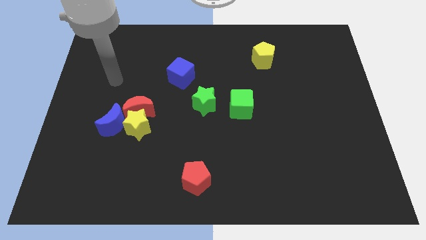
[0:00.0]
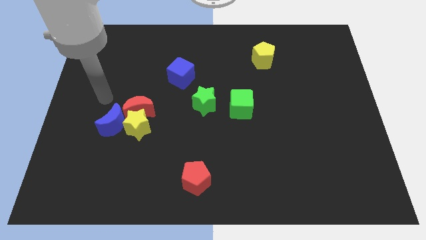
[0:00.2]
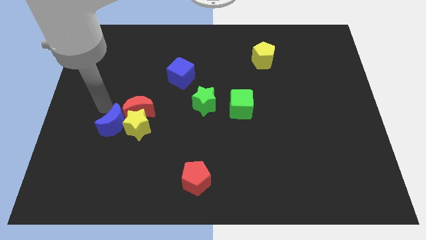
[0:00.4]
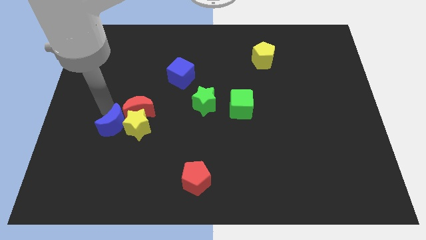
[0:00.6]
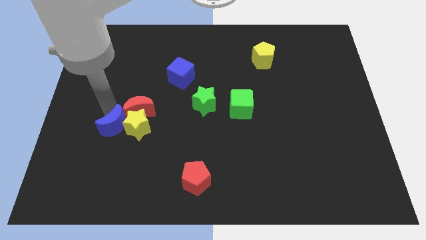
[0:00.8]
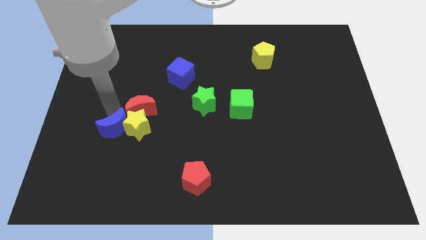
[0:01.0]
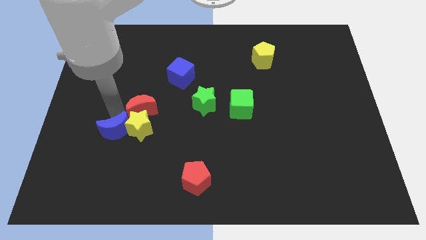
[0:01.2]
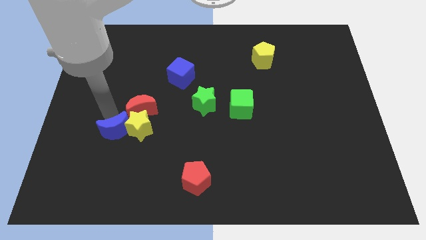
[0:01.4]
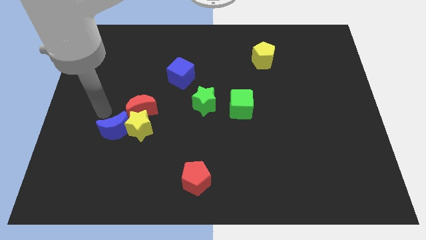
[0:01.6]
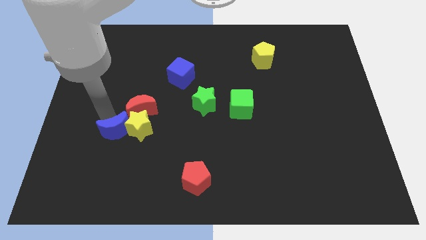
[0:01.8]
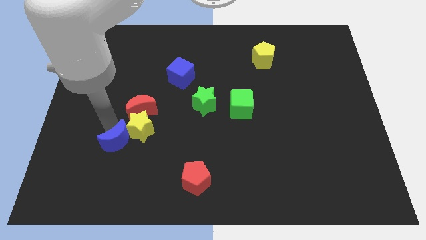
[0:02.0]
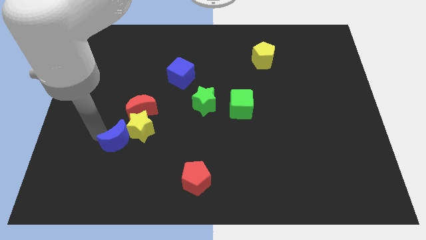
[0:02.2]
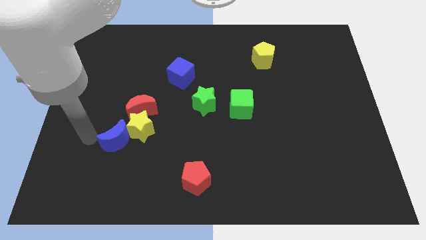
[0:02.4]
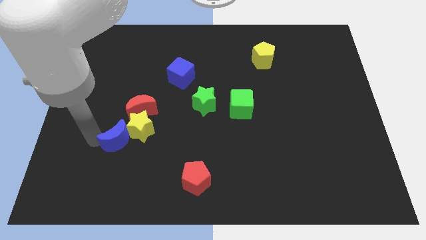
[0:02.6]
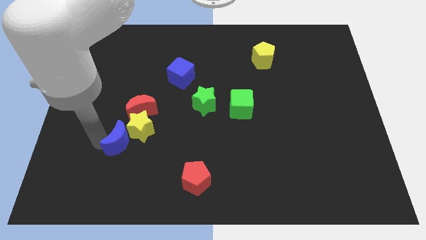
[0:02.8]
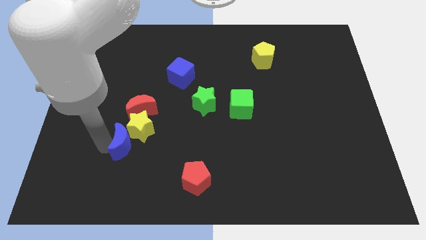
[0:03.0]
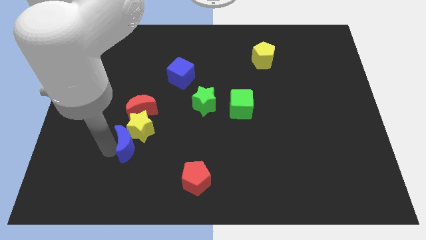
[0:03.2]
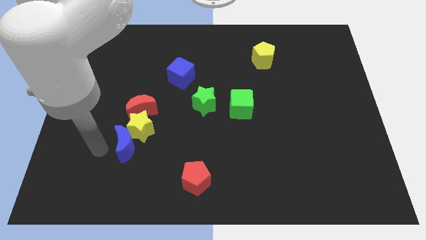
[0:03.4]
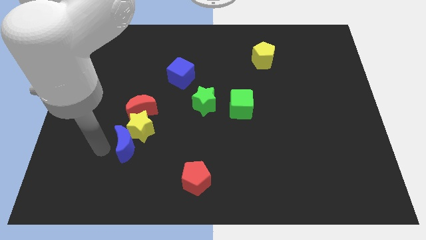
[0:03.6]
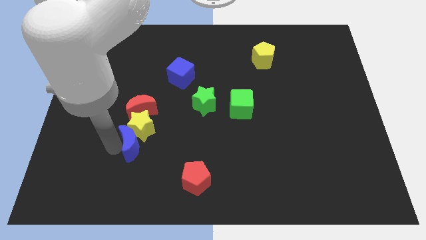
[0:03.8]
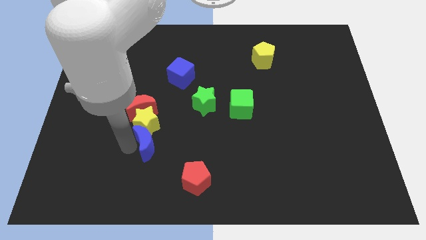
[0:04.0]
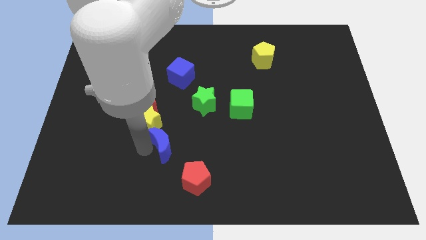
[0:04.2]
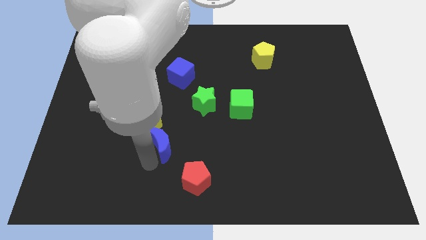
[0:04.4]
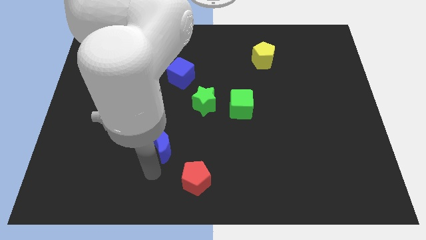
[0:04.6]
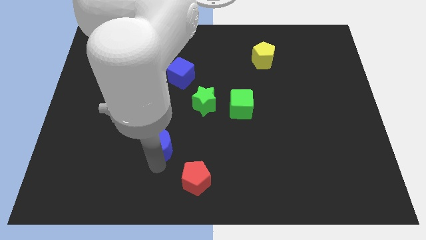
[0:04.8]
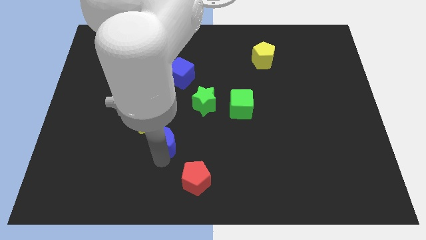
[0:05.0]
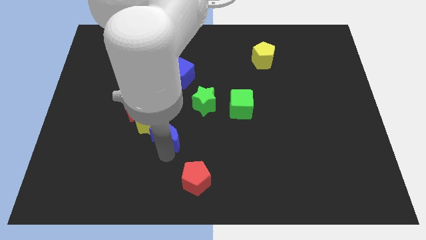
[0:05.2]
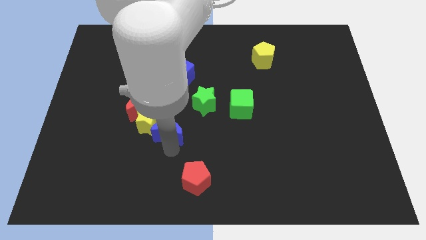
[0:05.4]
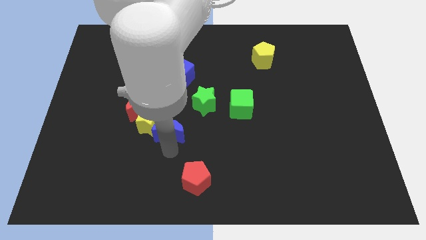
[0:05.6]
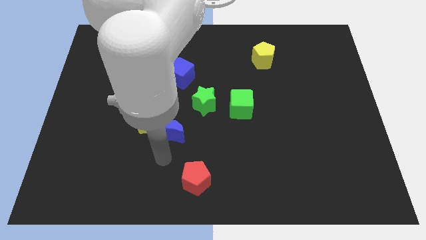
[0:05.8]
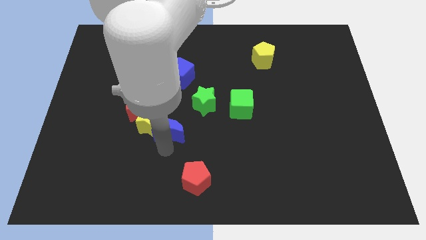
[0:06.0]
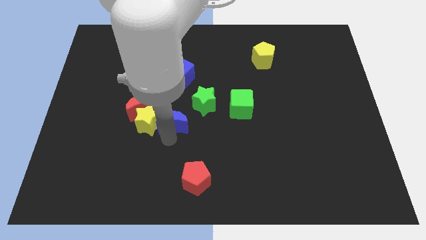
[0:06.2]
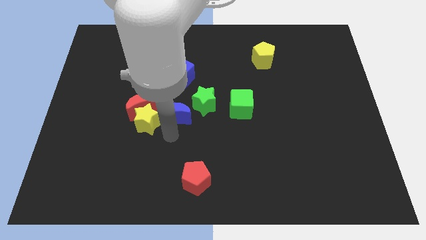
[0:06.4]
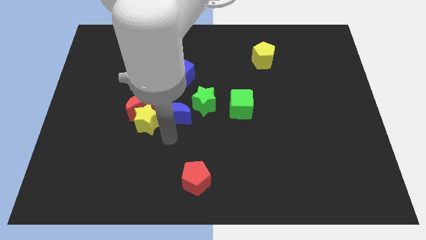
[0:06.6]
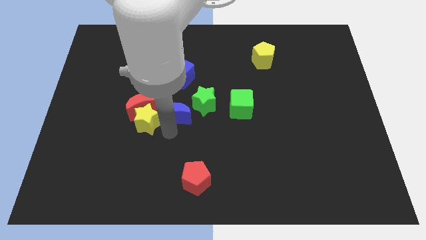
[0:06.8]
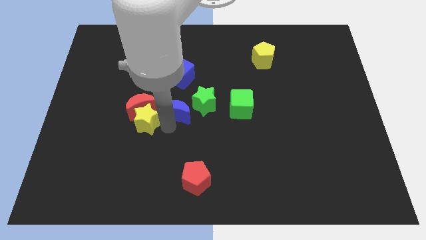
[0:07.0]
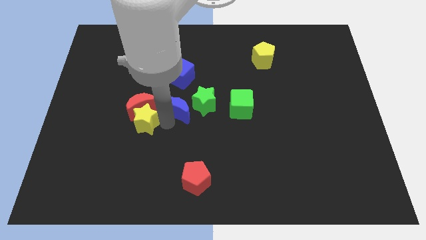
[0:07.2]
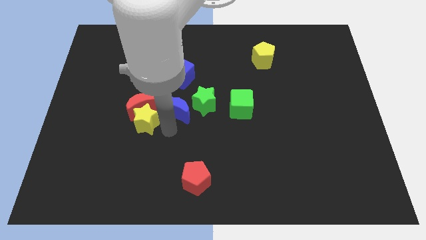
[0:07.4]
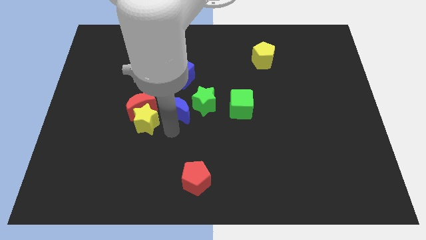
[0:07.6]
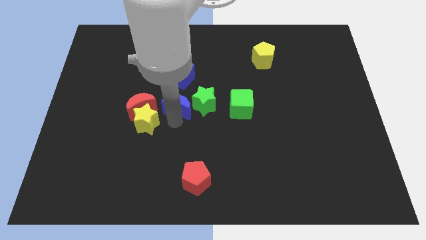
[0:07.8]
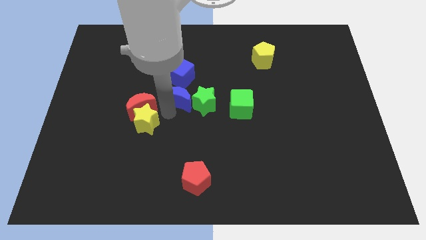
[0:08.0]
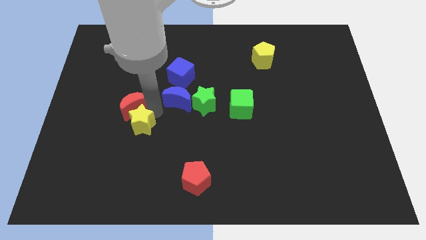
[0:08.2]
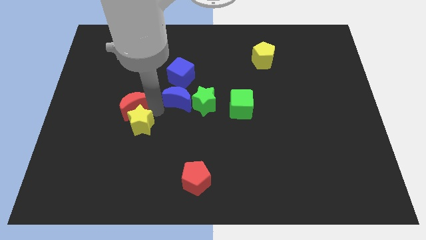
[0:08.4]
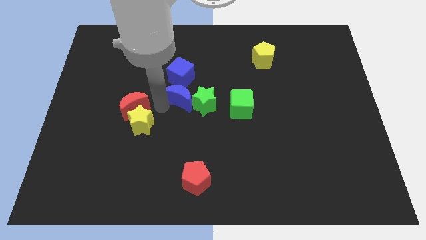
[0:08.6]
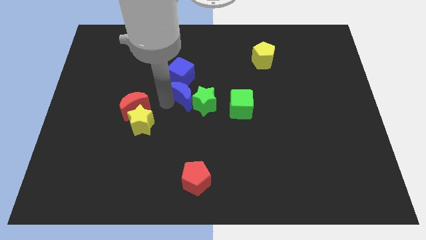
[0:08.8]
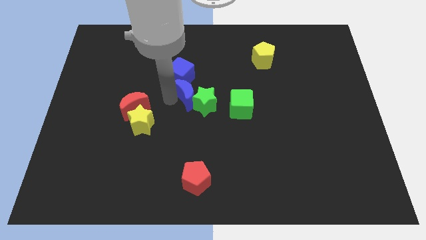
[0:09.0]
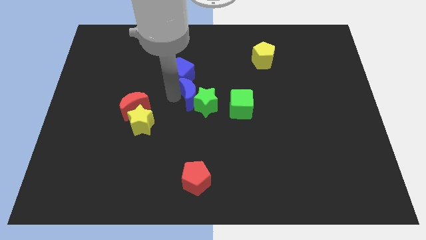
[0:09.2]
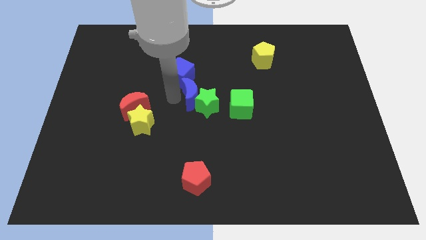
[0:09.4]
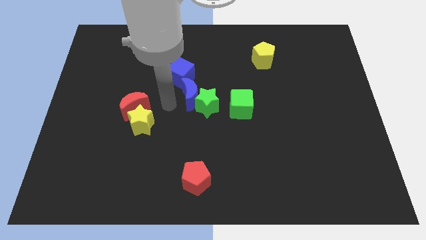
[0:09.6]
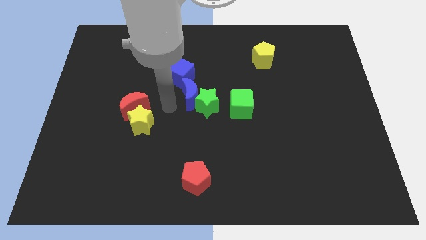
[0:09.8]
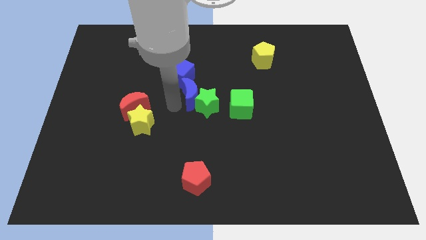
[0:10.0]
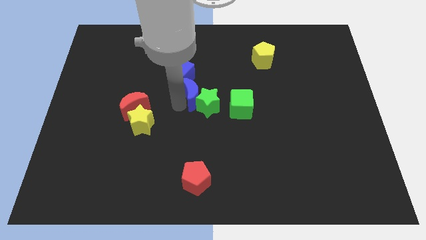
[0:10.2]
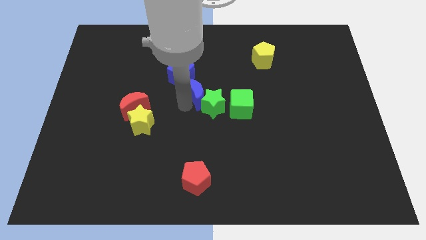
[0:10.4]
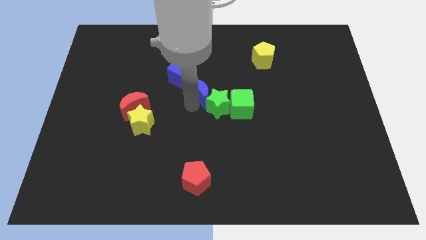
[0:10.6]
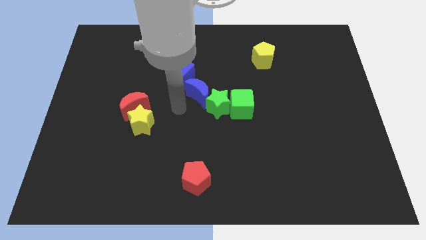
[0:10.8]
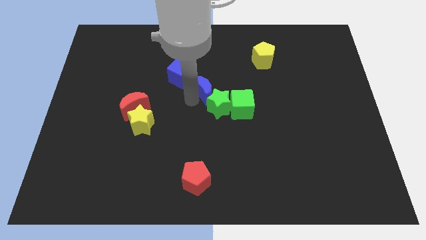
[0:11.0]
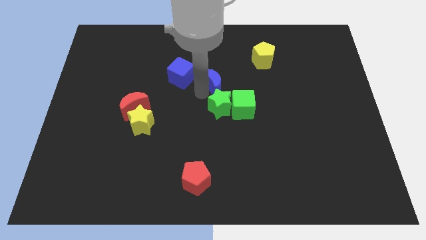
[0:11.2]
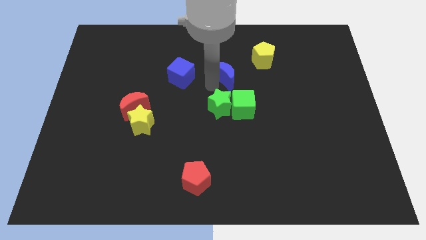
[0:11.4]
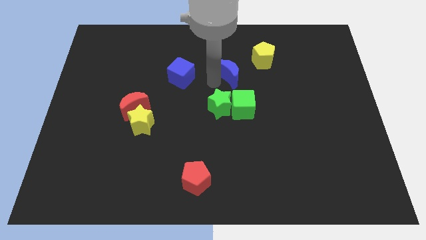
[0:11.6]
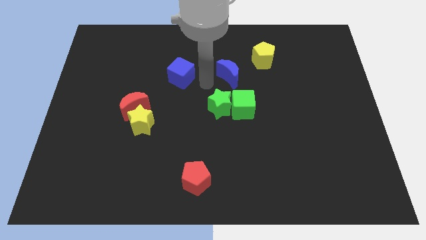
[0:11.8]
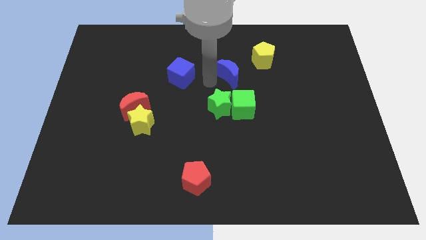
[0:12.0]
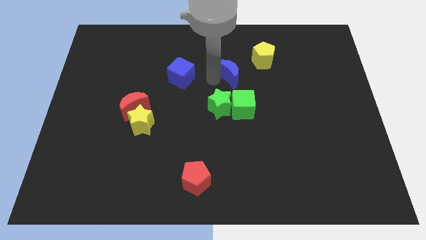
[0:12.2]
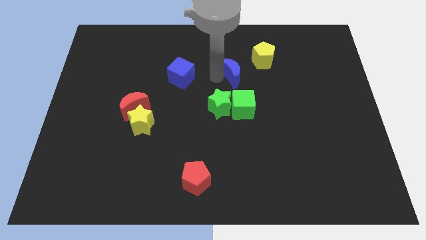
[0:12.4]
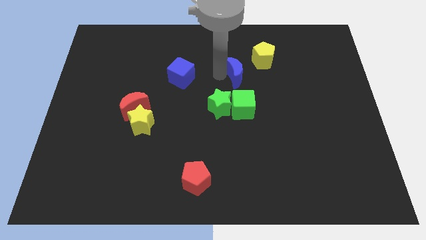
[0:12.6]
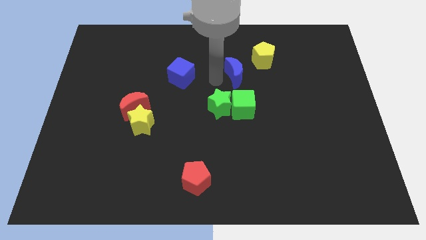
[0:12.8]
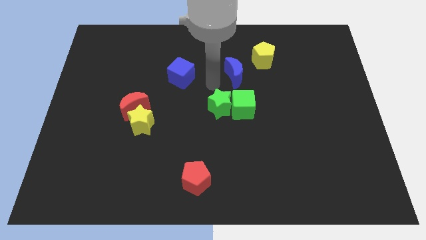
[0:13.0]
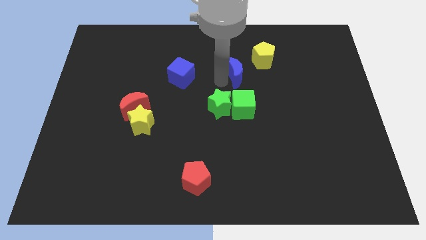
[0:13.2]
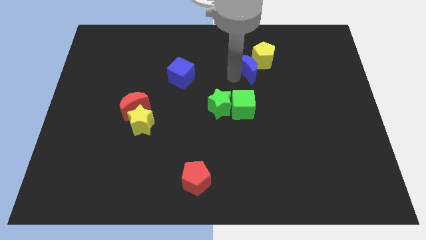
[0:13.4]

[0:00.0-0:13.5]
slide the blue moon towards the yellow pentagon

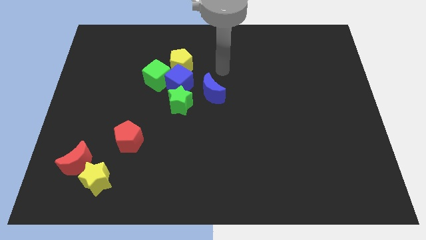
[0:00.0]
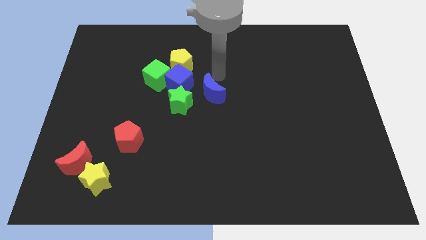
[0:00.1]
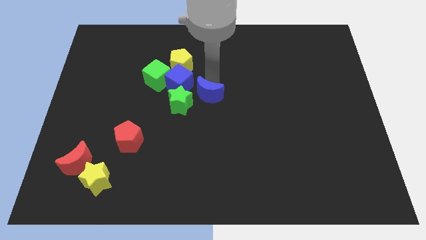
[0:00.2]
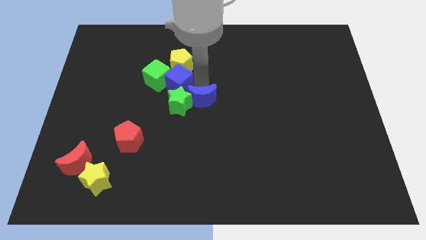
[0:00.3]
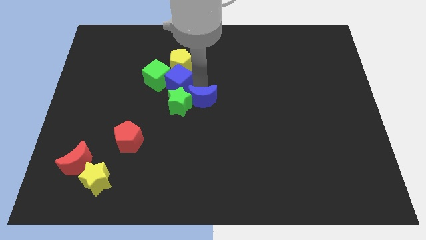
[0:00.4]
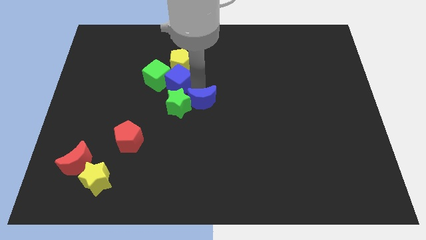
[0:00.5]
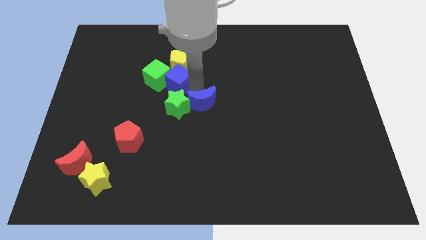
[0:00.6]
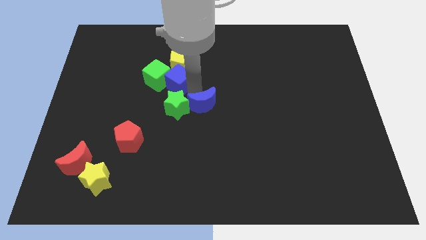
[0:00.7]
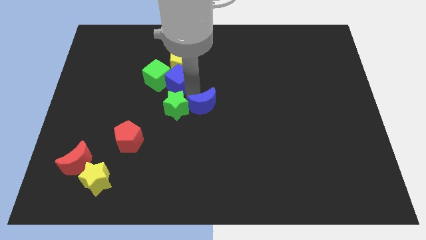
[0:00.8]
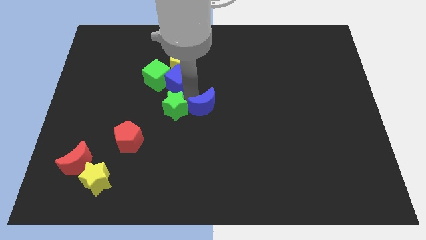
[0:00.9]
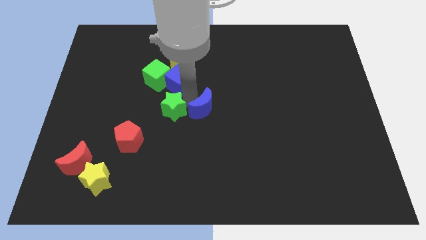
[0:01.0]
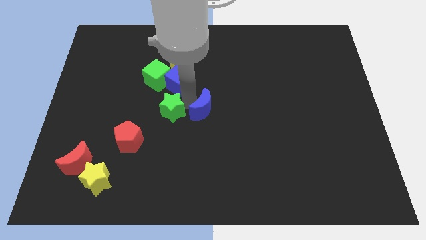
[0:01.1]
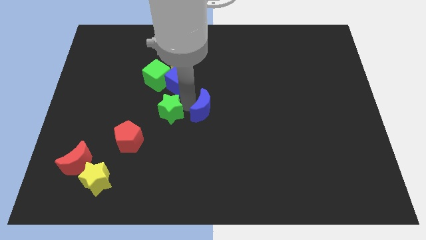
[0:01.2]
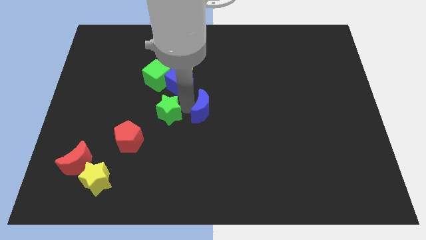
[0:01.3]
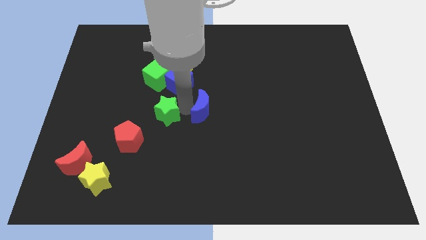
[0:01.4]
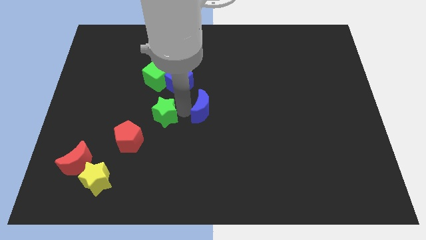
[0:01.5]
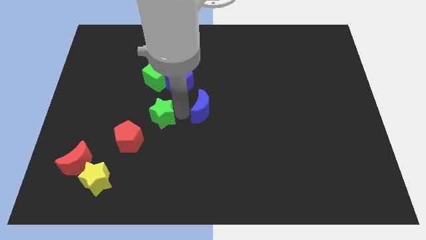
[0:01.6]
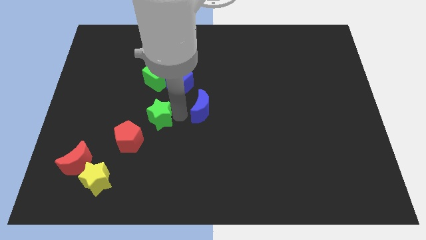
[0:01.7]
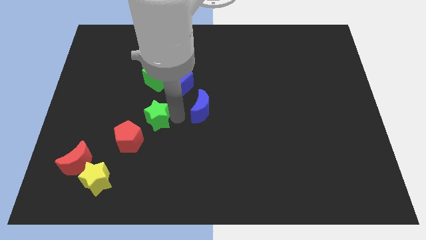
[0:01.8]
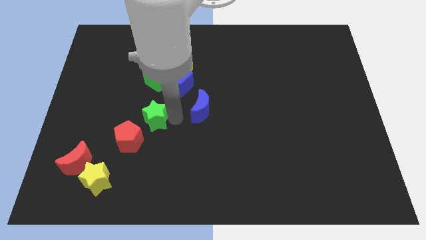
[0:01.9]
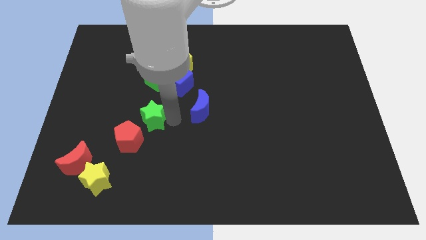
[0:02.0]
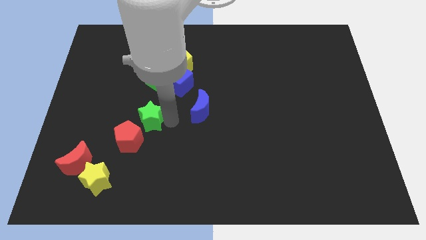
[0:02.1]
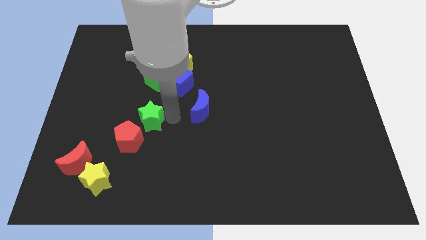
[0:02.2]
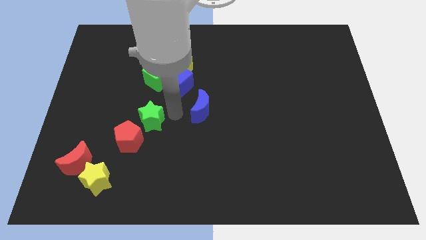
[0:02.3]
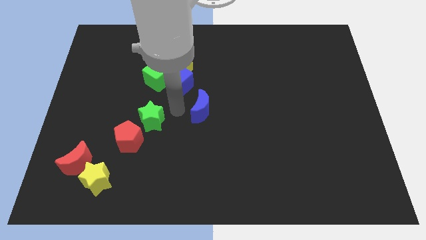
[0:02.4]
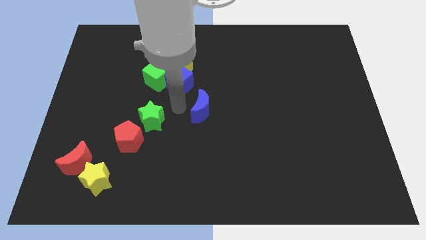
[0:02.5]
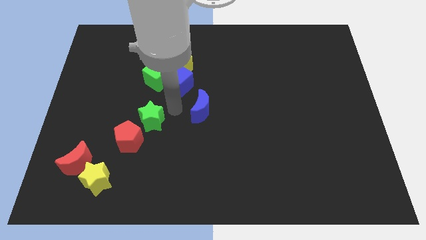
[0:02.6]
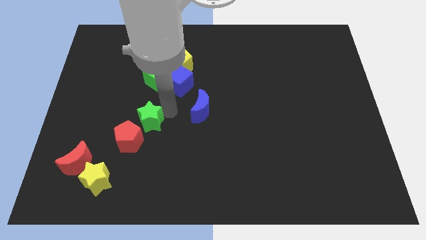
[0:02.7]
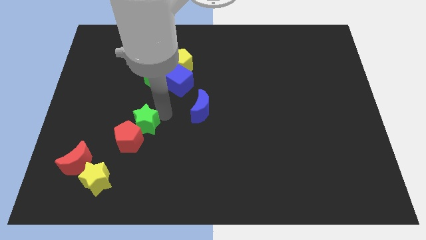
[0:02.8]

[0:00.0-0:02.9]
push the green star close to the red pentagon
